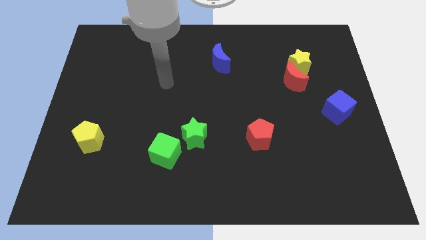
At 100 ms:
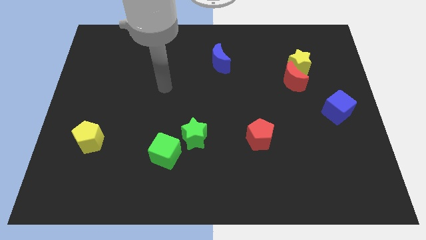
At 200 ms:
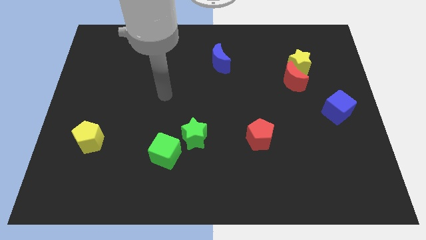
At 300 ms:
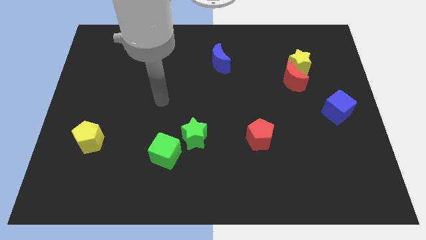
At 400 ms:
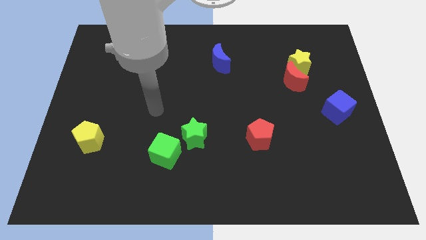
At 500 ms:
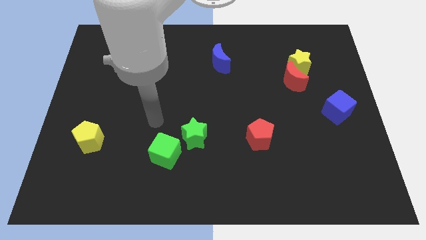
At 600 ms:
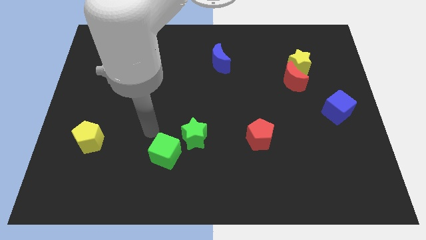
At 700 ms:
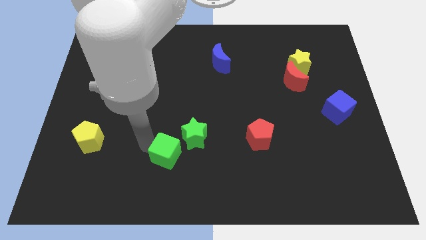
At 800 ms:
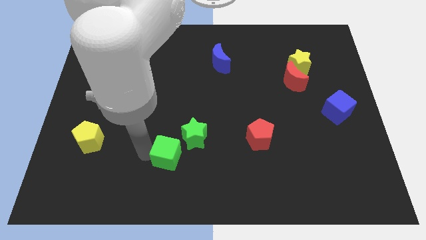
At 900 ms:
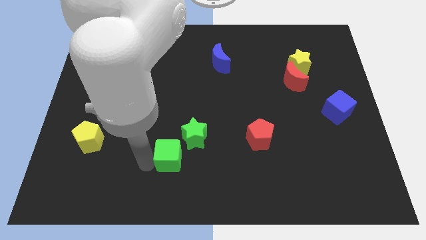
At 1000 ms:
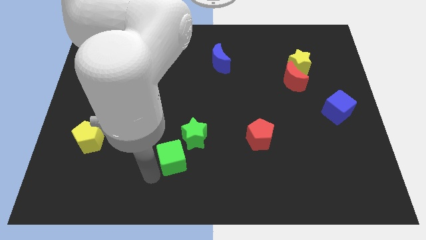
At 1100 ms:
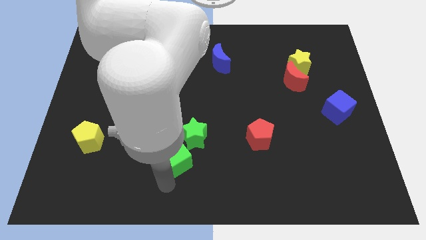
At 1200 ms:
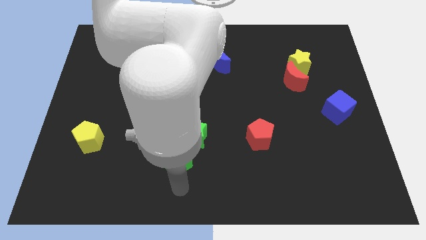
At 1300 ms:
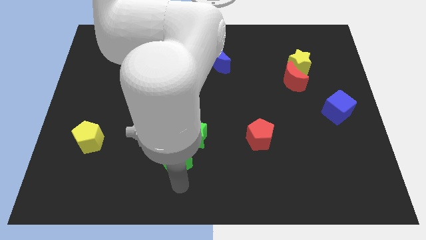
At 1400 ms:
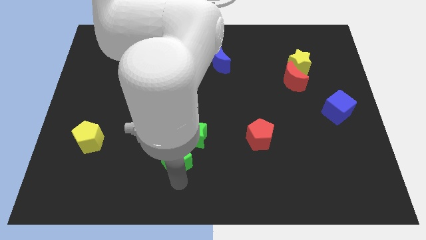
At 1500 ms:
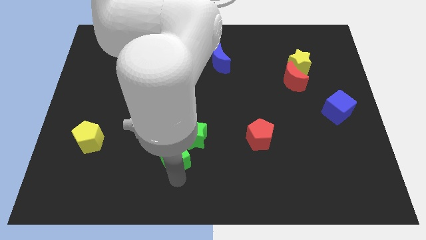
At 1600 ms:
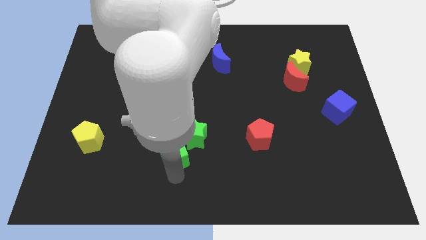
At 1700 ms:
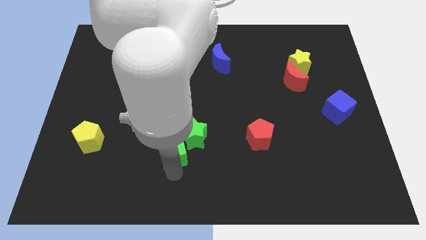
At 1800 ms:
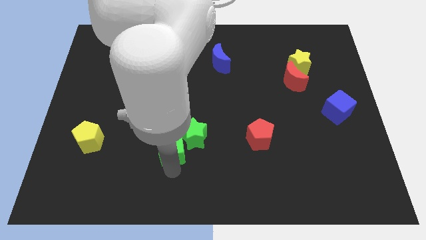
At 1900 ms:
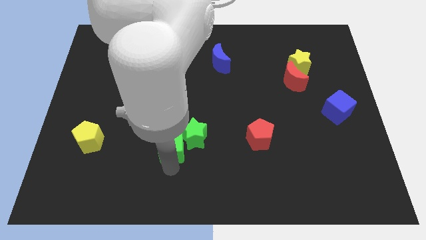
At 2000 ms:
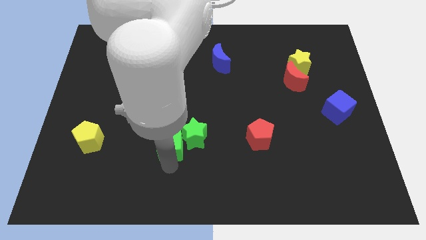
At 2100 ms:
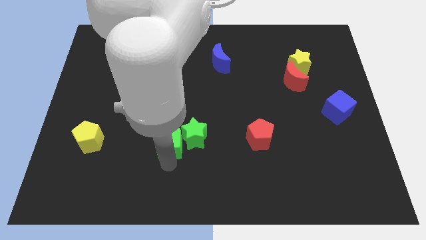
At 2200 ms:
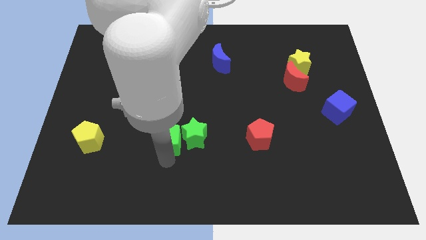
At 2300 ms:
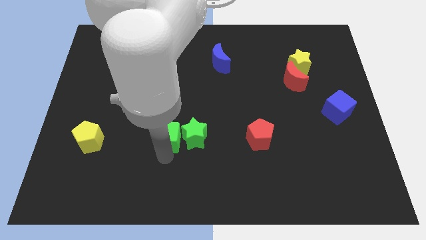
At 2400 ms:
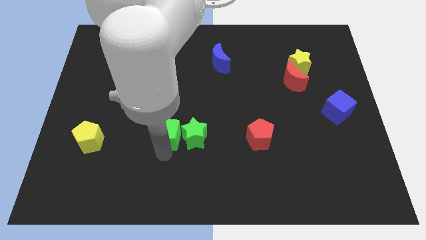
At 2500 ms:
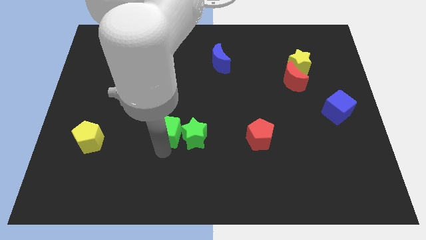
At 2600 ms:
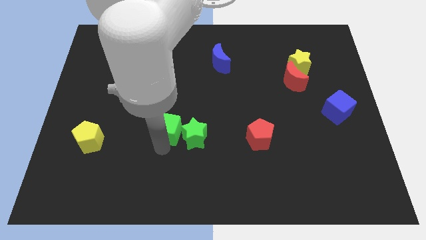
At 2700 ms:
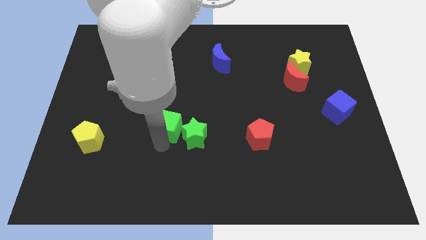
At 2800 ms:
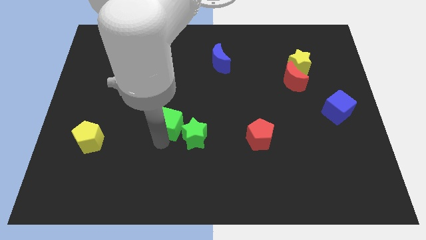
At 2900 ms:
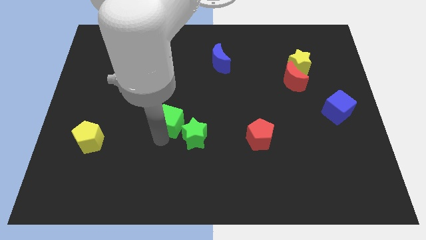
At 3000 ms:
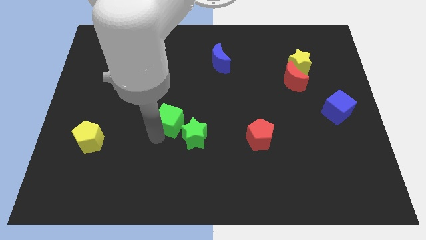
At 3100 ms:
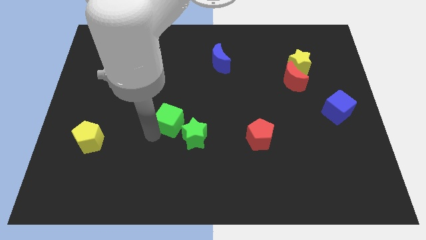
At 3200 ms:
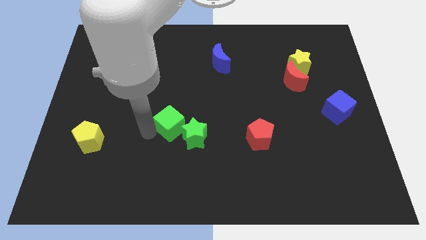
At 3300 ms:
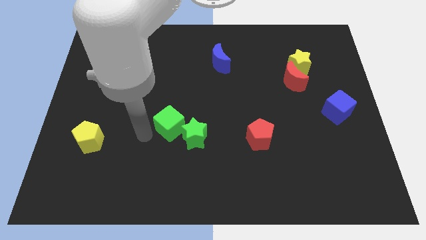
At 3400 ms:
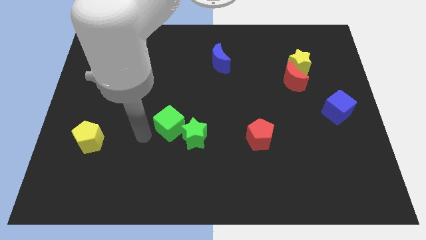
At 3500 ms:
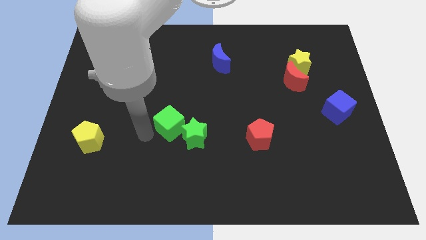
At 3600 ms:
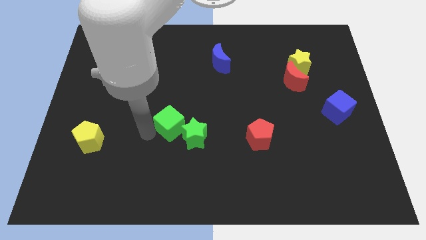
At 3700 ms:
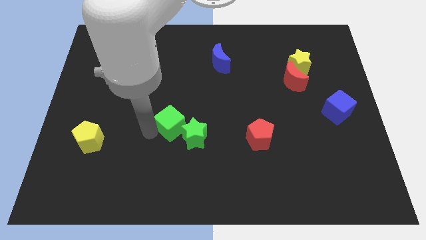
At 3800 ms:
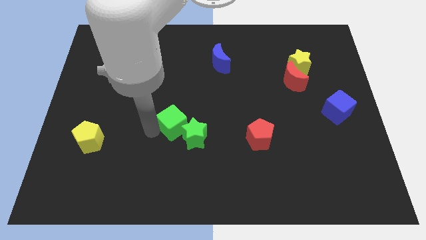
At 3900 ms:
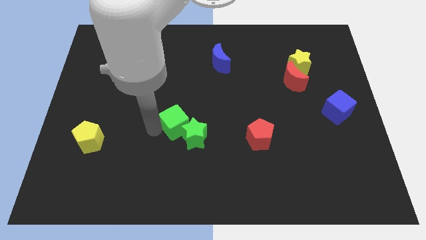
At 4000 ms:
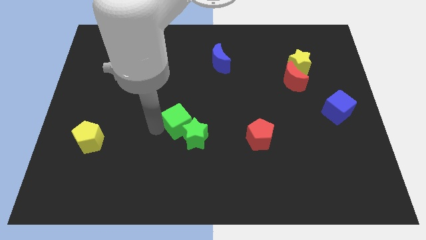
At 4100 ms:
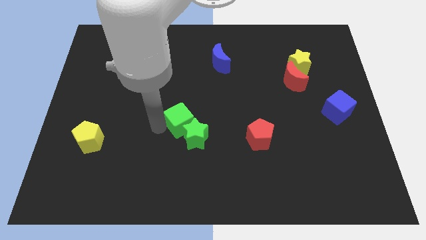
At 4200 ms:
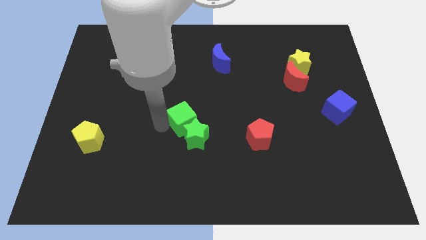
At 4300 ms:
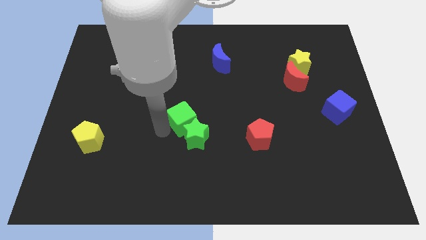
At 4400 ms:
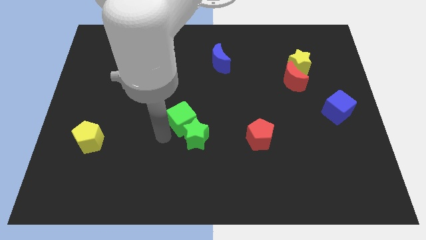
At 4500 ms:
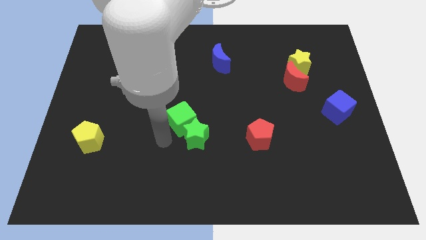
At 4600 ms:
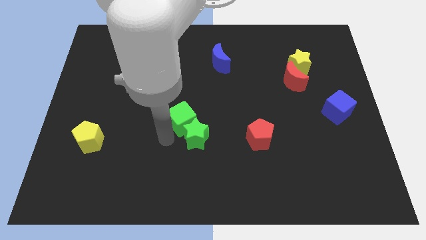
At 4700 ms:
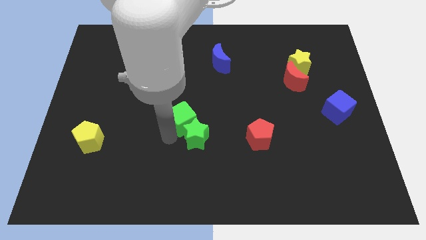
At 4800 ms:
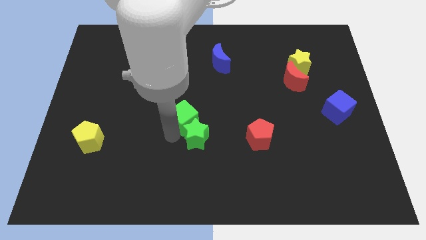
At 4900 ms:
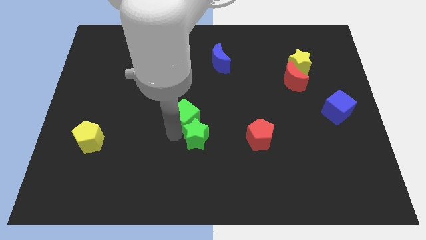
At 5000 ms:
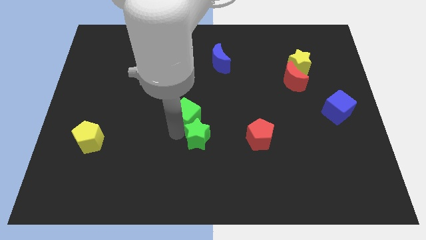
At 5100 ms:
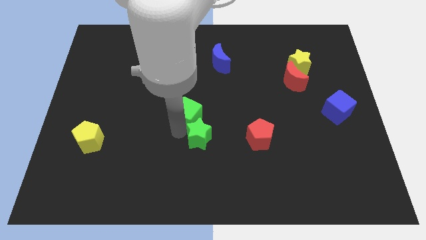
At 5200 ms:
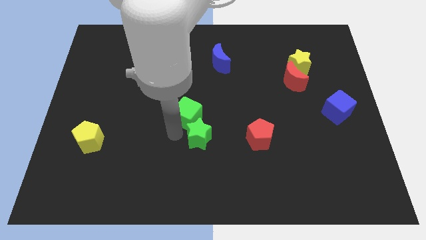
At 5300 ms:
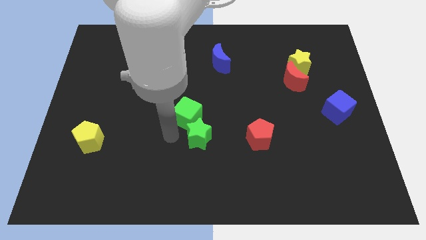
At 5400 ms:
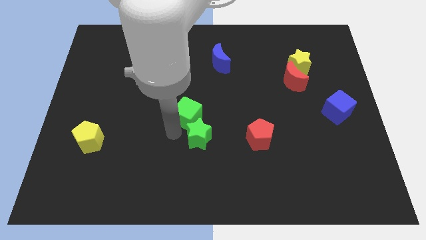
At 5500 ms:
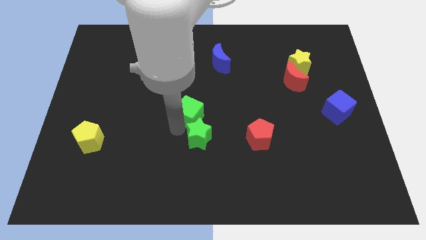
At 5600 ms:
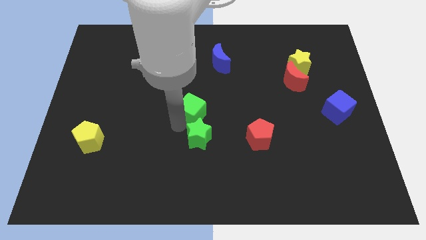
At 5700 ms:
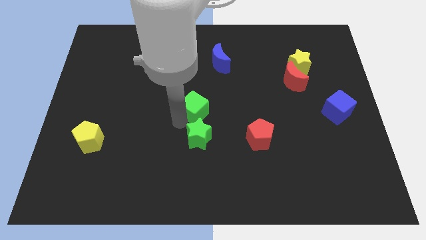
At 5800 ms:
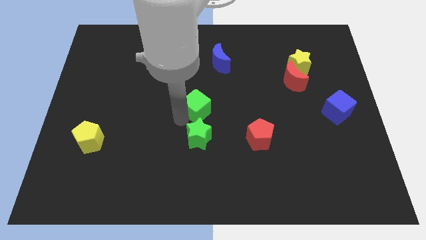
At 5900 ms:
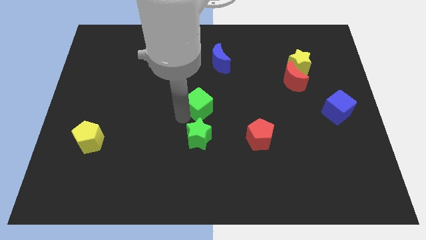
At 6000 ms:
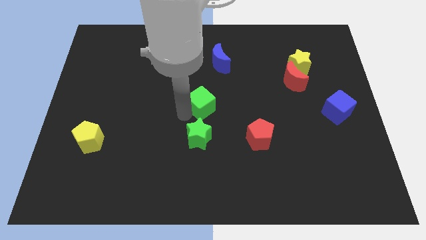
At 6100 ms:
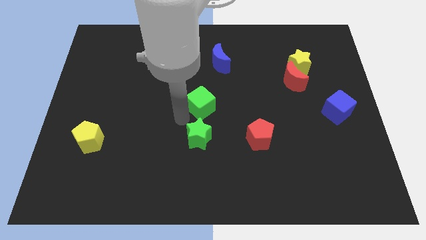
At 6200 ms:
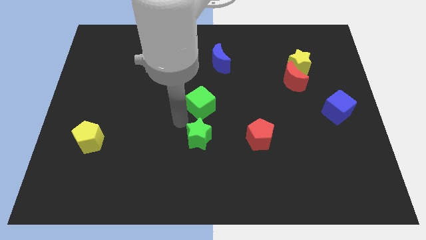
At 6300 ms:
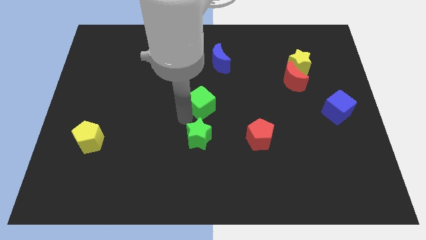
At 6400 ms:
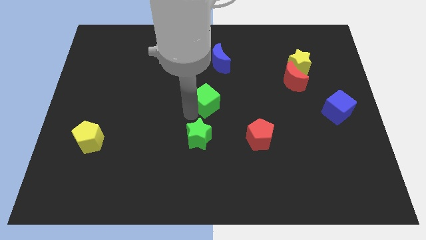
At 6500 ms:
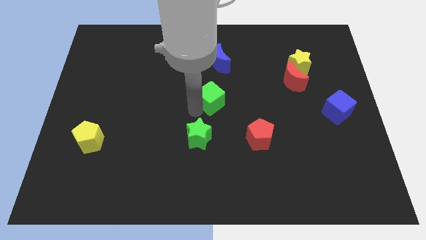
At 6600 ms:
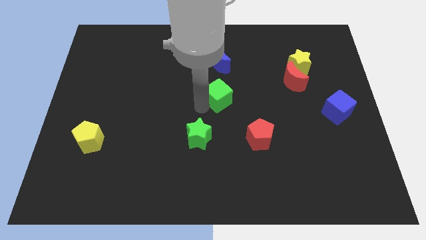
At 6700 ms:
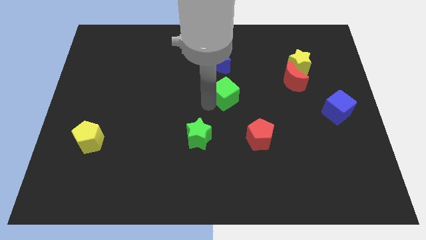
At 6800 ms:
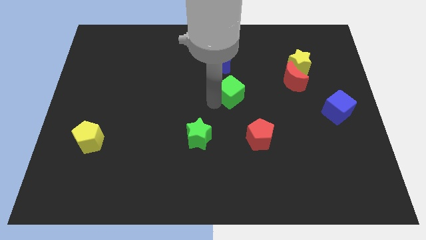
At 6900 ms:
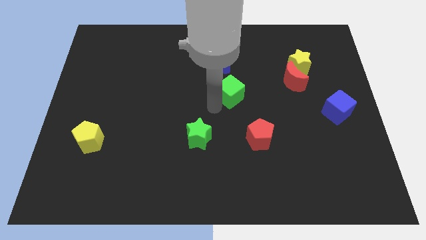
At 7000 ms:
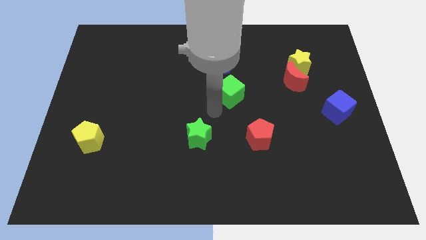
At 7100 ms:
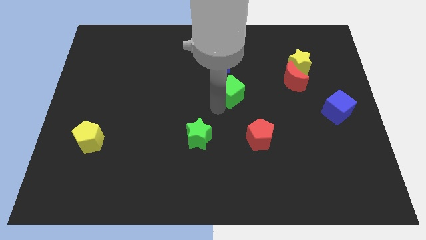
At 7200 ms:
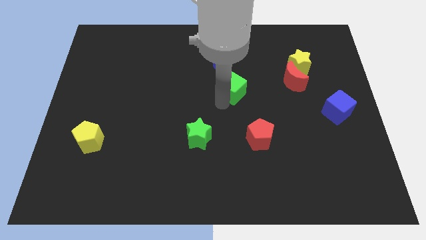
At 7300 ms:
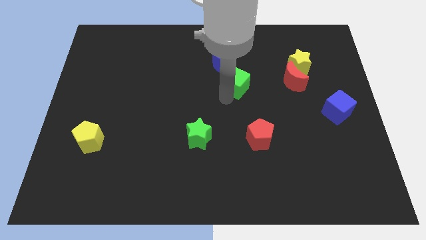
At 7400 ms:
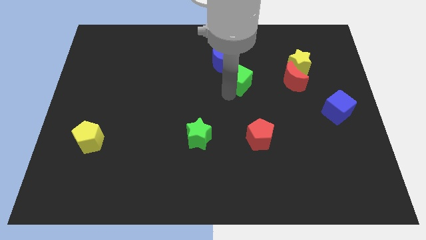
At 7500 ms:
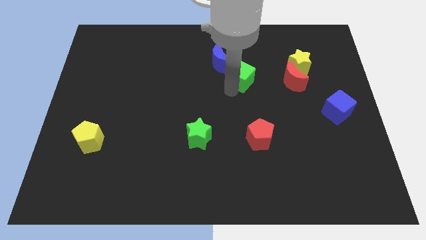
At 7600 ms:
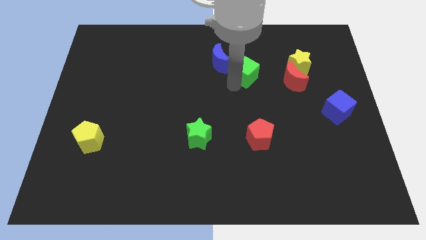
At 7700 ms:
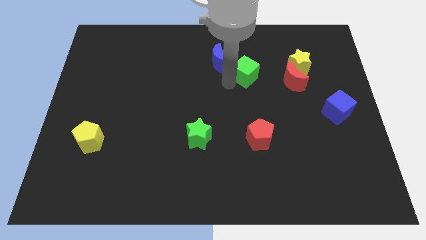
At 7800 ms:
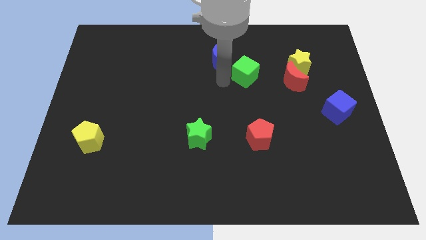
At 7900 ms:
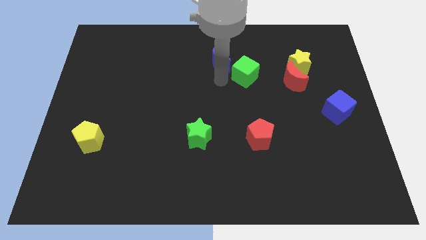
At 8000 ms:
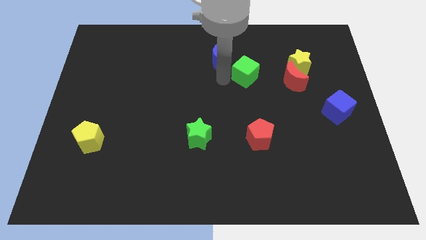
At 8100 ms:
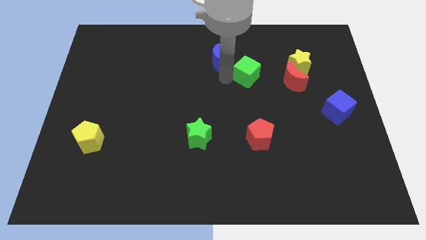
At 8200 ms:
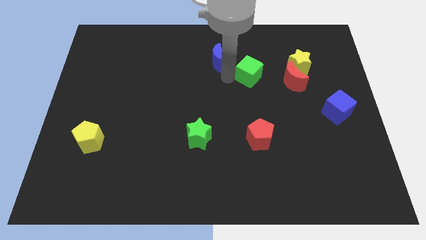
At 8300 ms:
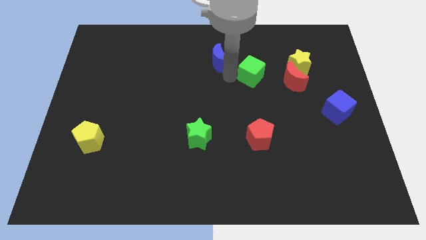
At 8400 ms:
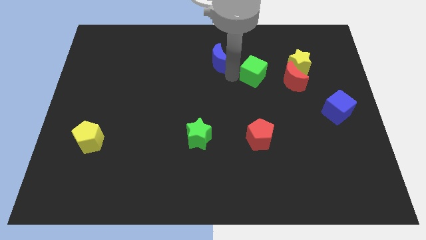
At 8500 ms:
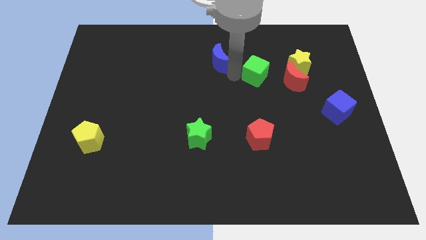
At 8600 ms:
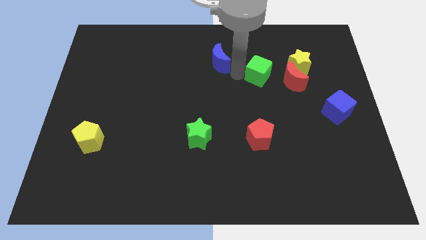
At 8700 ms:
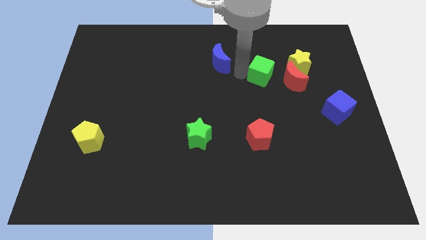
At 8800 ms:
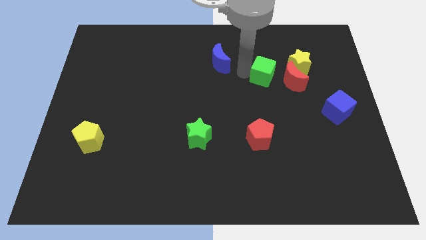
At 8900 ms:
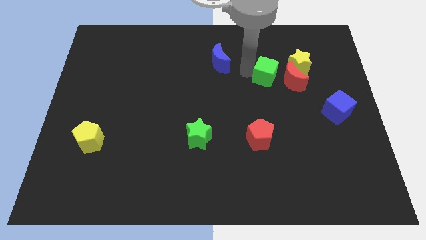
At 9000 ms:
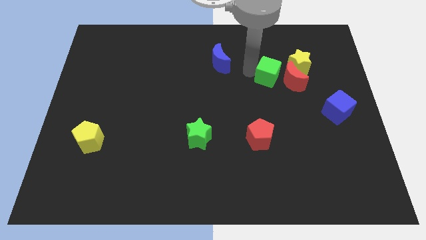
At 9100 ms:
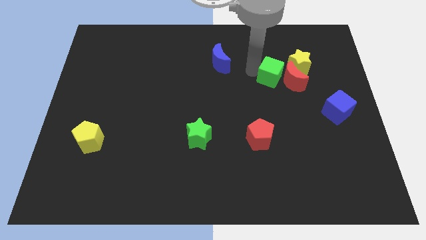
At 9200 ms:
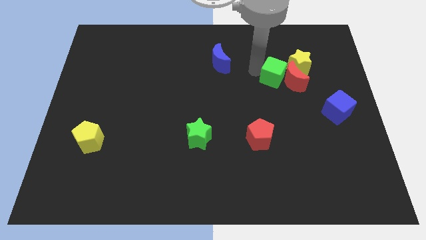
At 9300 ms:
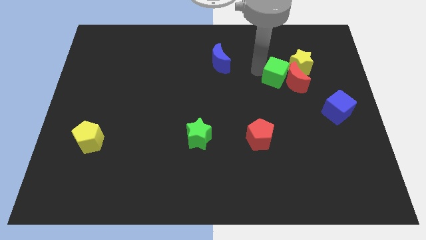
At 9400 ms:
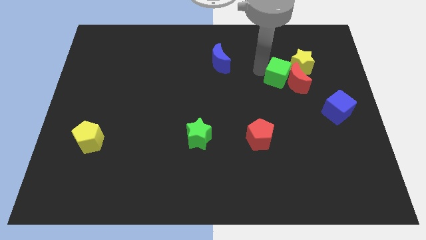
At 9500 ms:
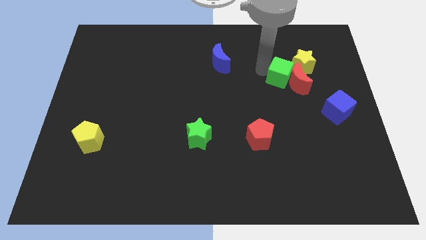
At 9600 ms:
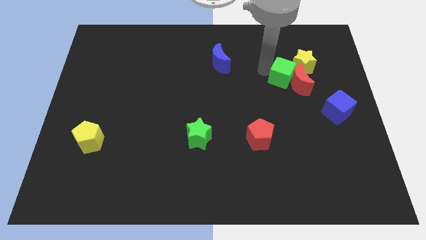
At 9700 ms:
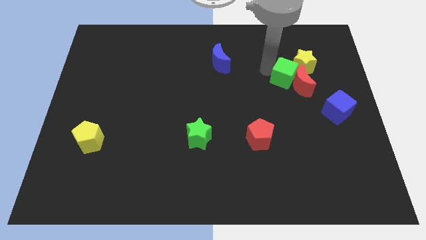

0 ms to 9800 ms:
push the green cube close to the yellow star
